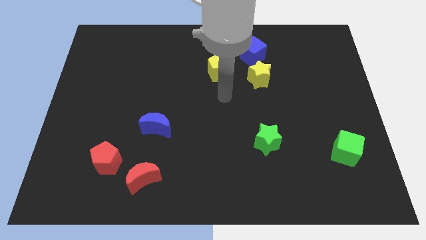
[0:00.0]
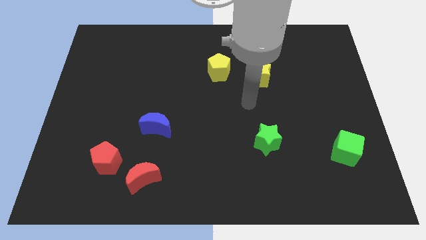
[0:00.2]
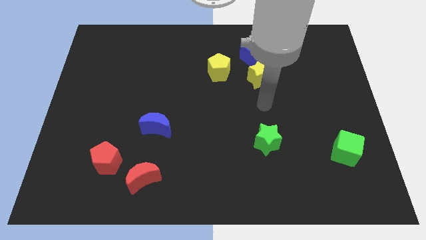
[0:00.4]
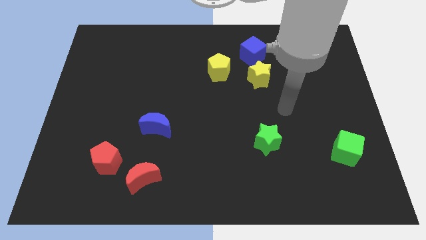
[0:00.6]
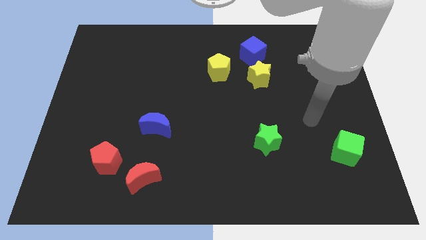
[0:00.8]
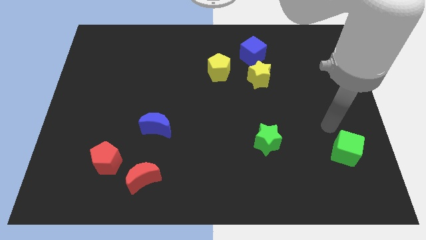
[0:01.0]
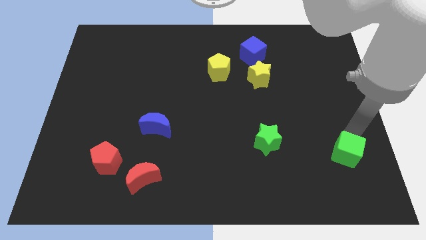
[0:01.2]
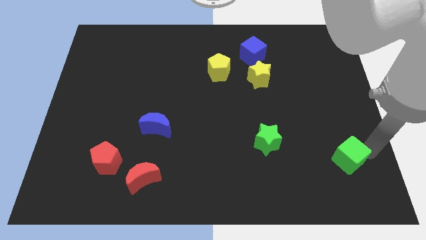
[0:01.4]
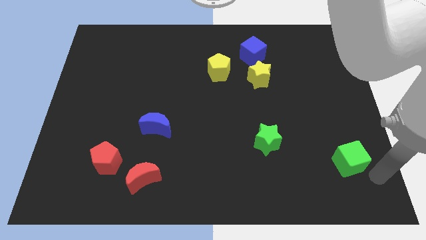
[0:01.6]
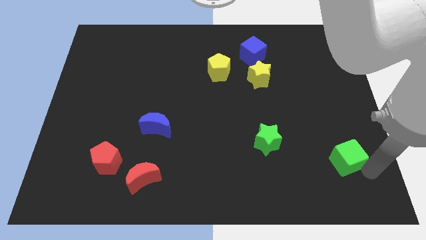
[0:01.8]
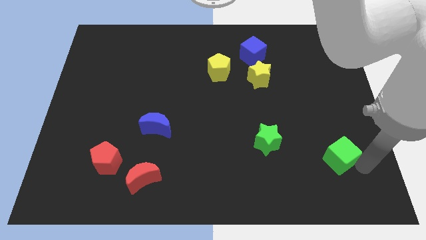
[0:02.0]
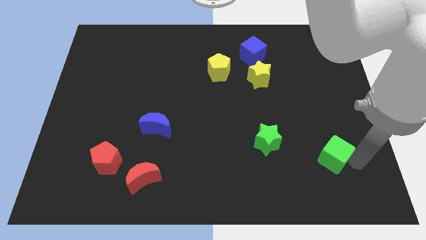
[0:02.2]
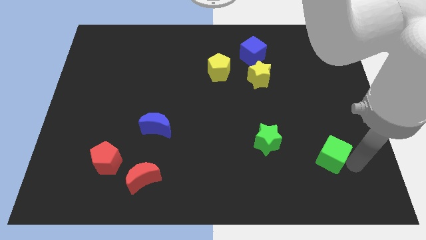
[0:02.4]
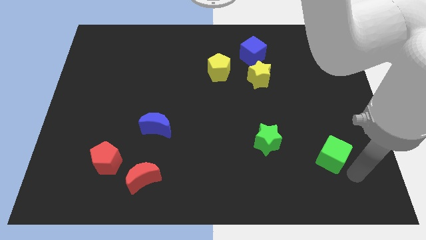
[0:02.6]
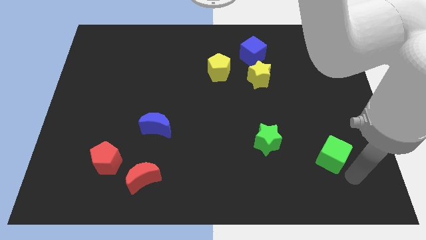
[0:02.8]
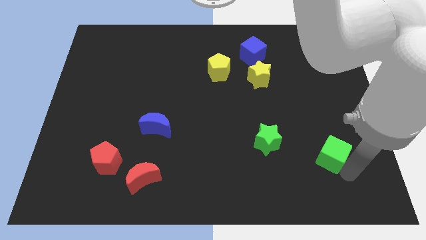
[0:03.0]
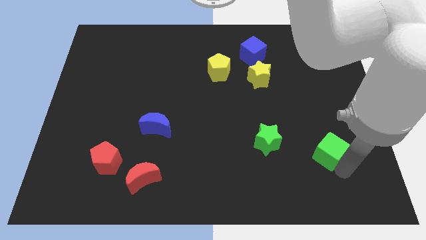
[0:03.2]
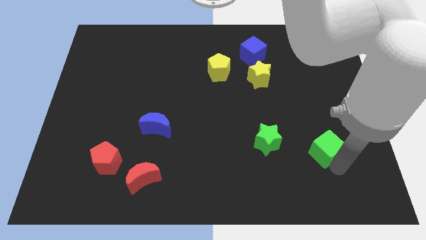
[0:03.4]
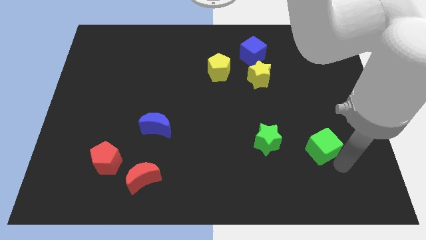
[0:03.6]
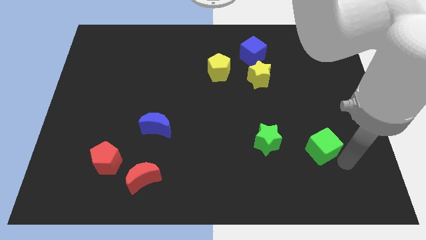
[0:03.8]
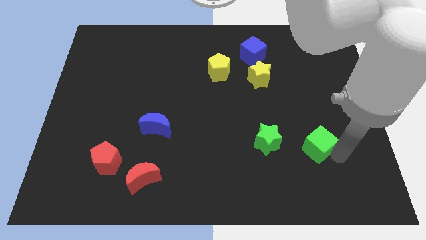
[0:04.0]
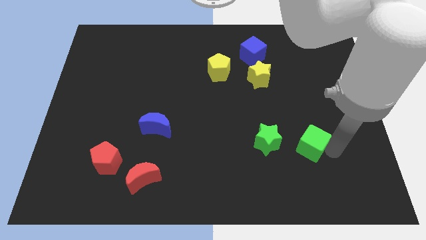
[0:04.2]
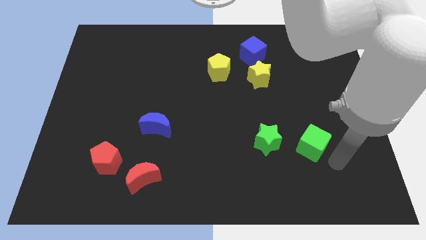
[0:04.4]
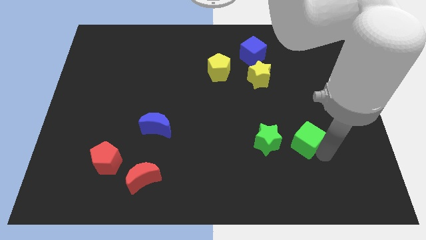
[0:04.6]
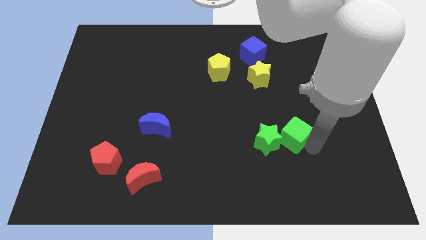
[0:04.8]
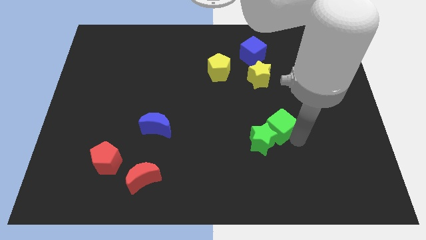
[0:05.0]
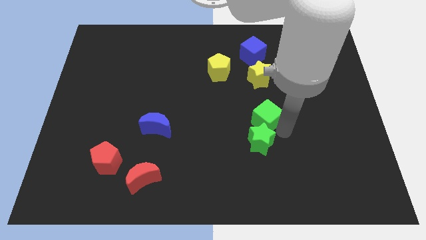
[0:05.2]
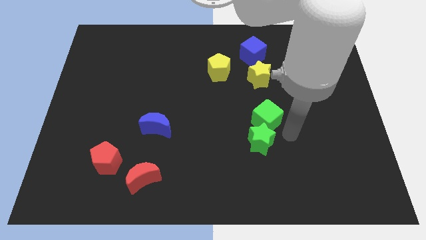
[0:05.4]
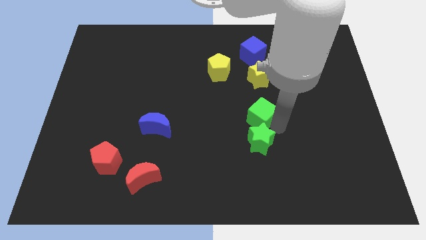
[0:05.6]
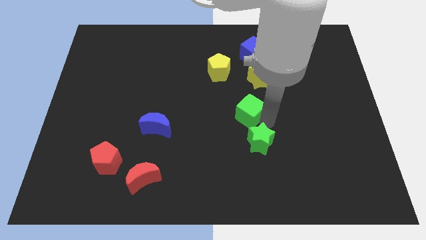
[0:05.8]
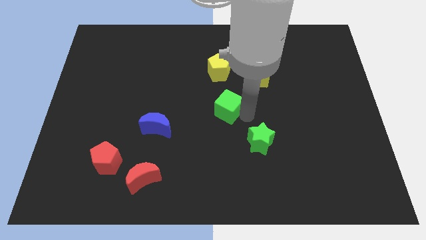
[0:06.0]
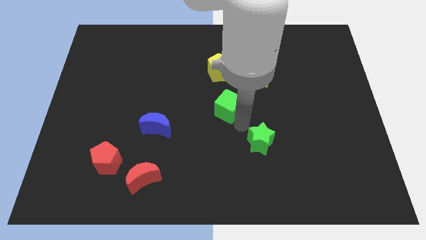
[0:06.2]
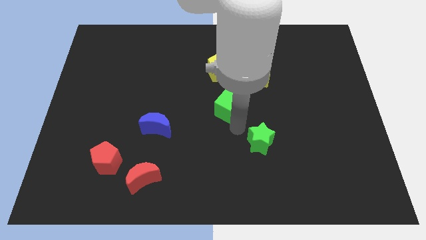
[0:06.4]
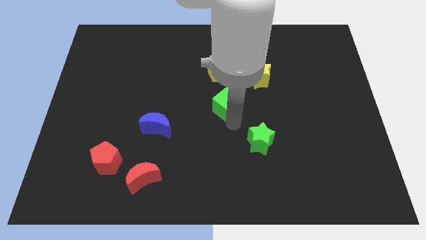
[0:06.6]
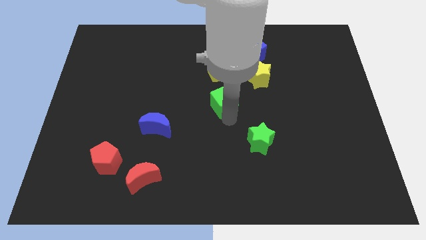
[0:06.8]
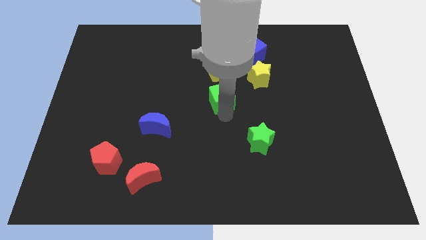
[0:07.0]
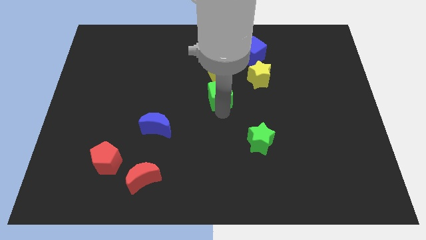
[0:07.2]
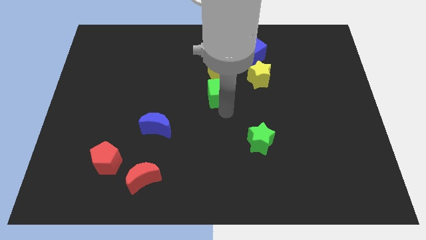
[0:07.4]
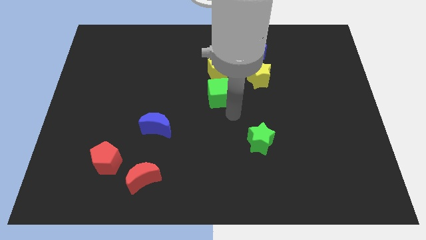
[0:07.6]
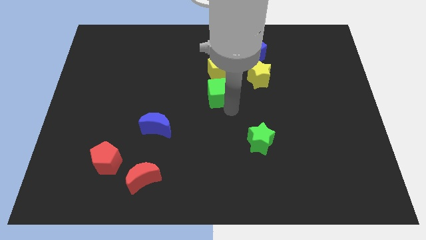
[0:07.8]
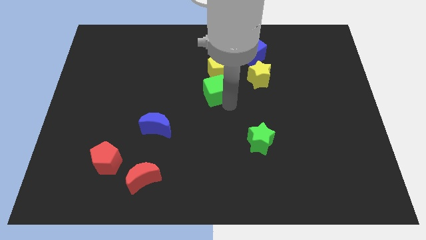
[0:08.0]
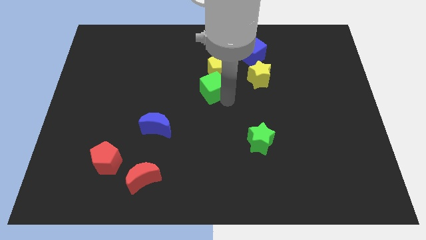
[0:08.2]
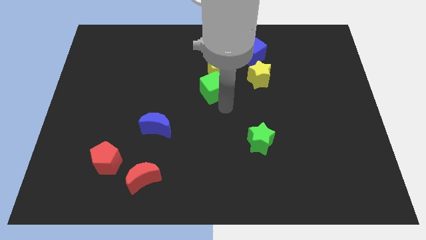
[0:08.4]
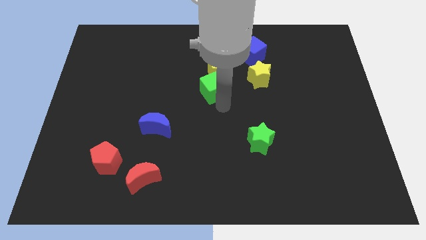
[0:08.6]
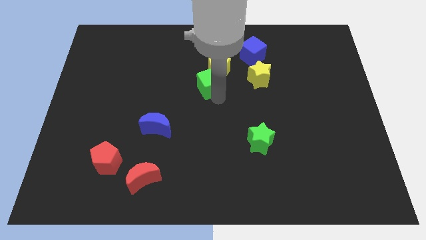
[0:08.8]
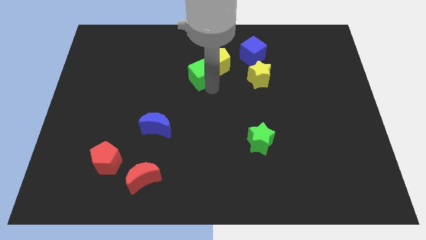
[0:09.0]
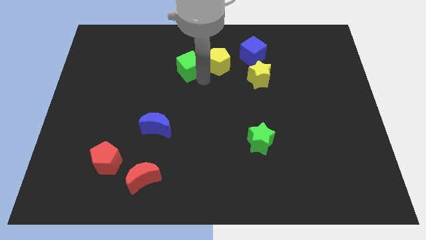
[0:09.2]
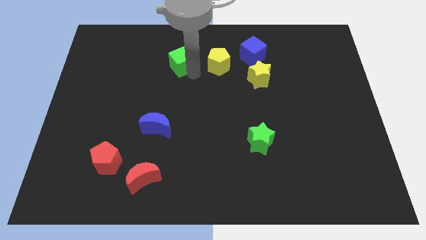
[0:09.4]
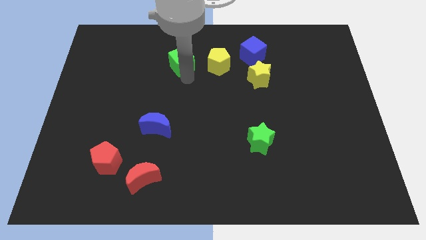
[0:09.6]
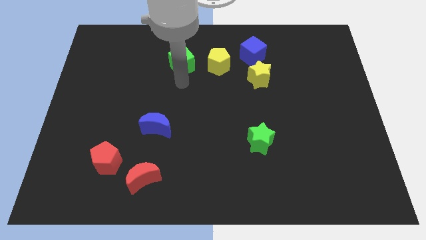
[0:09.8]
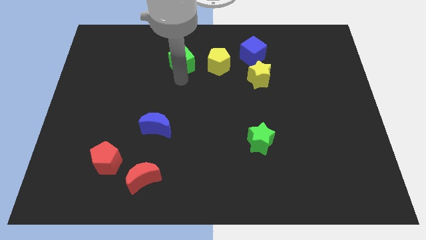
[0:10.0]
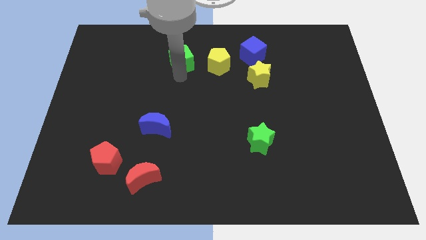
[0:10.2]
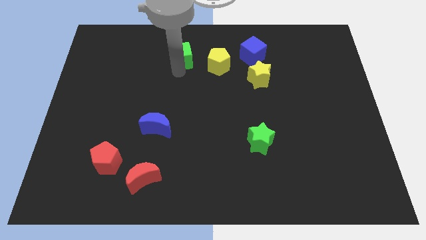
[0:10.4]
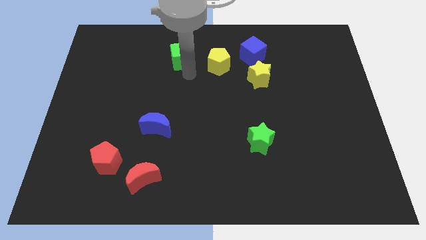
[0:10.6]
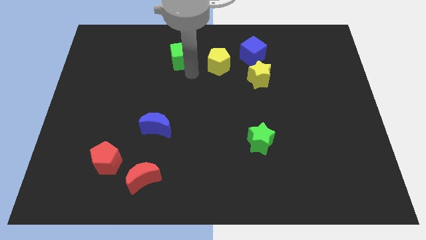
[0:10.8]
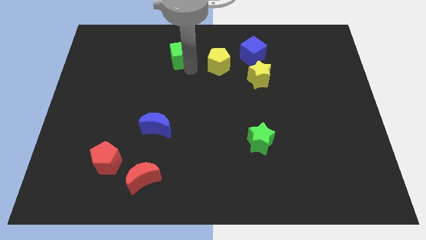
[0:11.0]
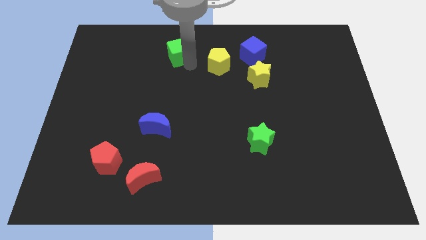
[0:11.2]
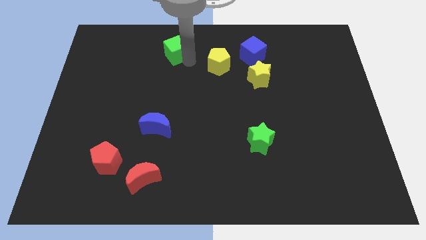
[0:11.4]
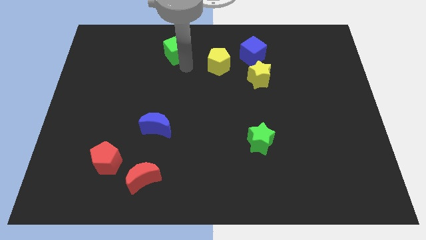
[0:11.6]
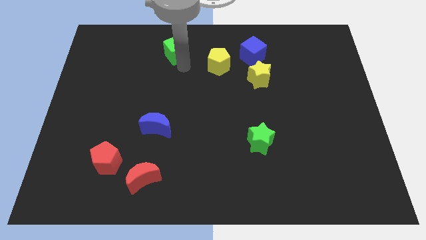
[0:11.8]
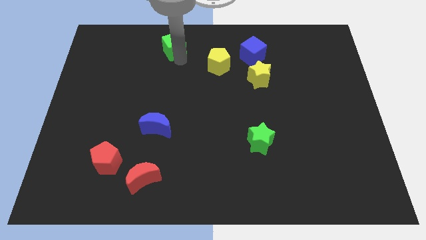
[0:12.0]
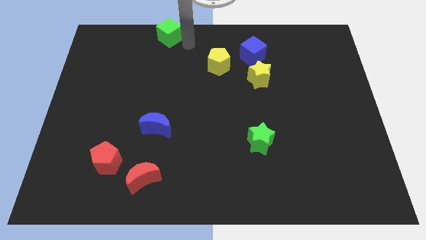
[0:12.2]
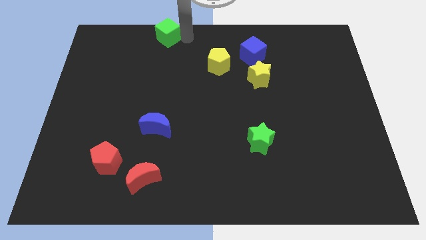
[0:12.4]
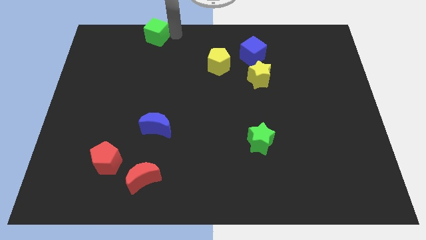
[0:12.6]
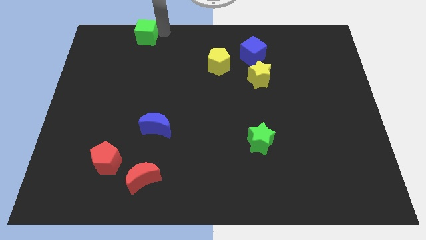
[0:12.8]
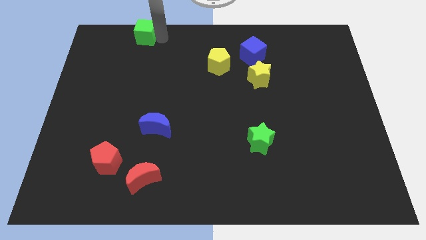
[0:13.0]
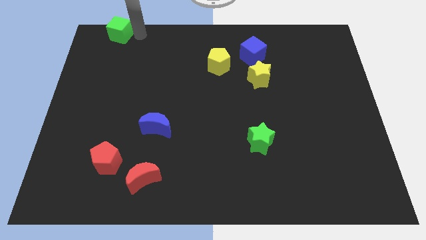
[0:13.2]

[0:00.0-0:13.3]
slide the green cube to the top left
